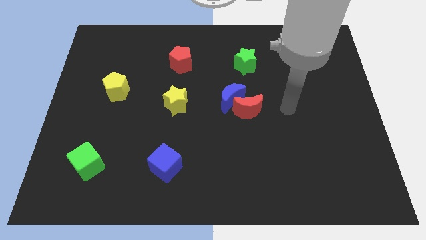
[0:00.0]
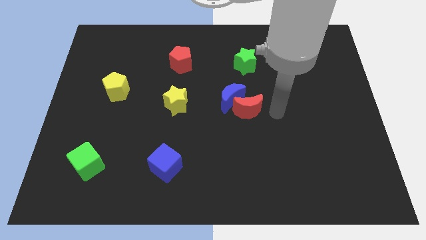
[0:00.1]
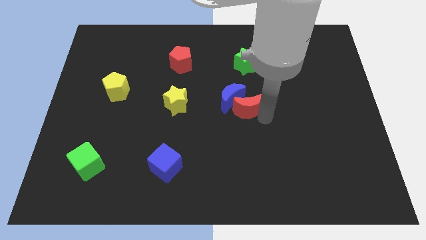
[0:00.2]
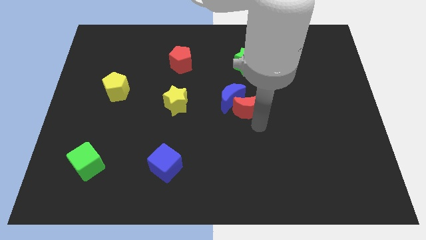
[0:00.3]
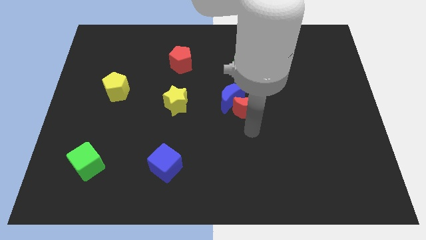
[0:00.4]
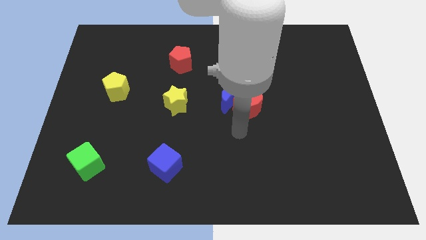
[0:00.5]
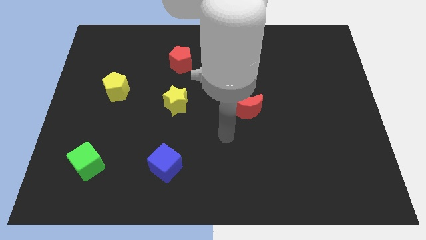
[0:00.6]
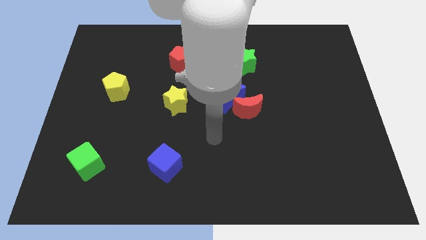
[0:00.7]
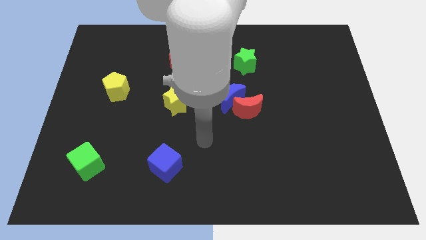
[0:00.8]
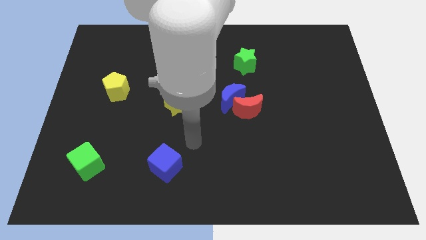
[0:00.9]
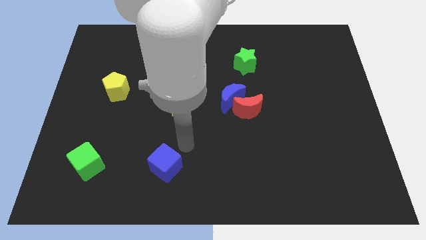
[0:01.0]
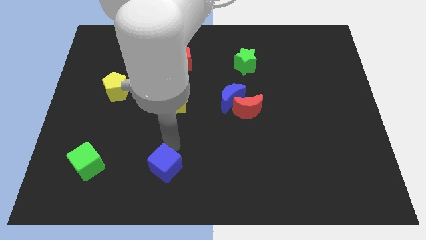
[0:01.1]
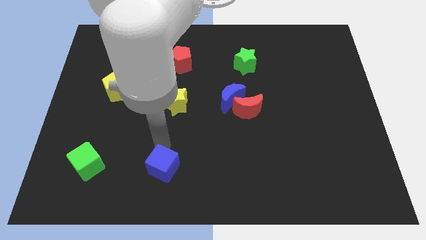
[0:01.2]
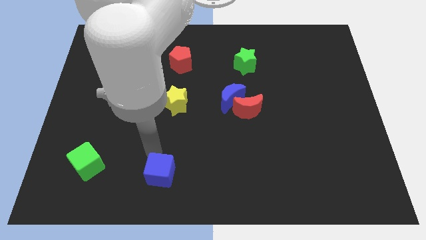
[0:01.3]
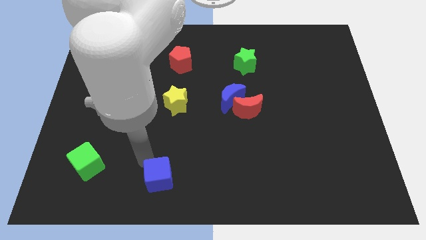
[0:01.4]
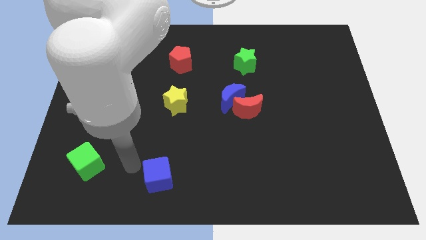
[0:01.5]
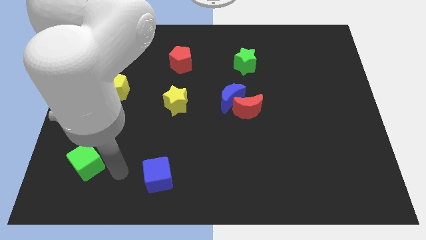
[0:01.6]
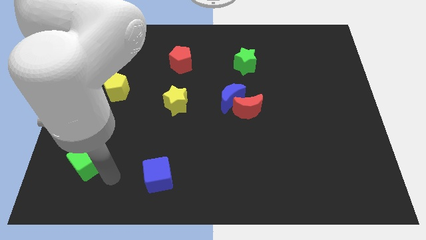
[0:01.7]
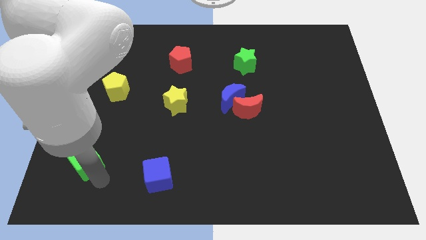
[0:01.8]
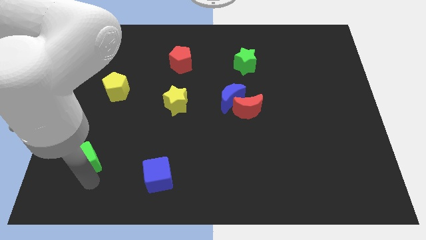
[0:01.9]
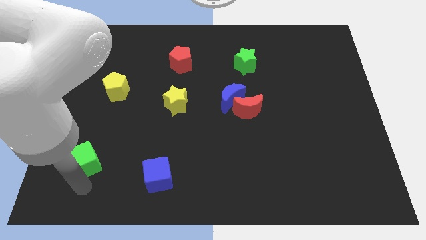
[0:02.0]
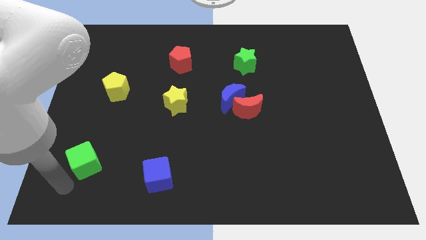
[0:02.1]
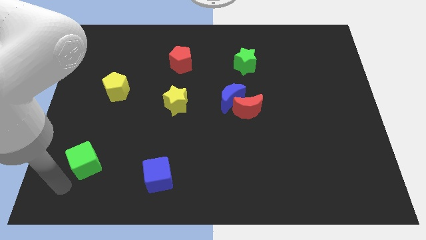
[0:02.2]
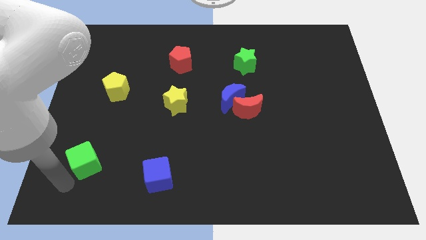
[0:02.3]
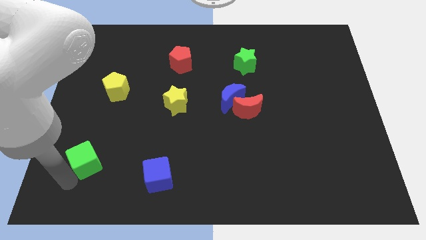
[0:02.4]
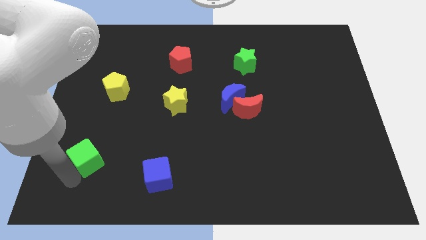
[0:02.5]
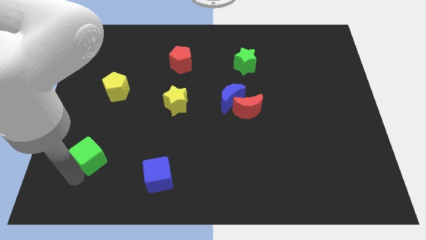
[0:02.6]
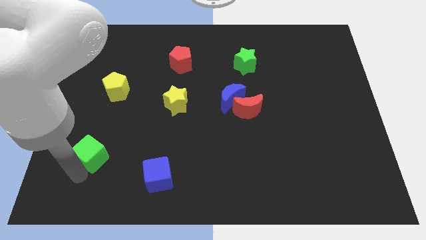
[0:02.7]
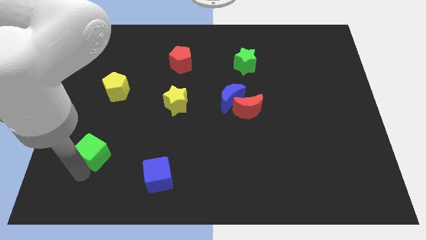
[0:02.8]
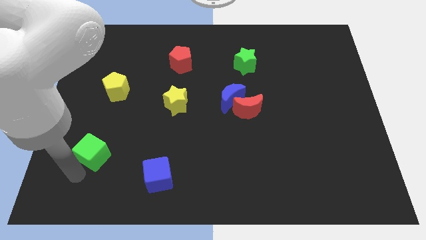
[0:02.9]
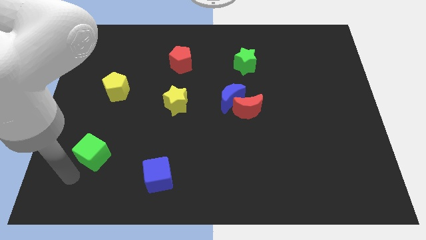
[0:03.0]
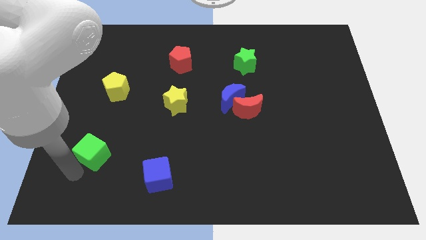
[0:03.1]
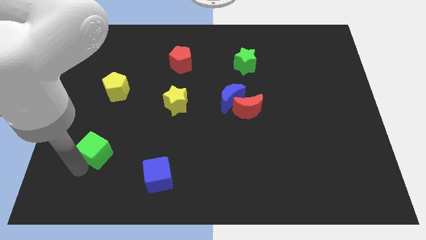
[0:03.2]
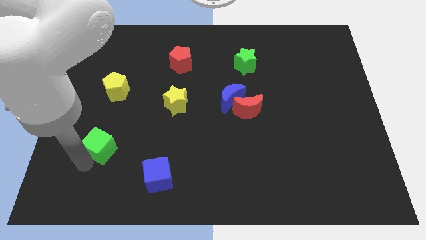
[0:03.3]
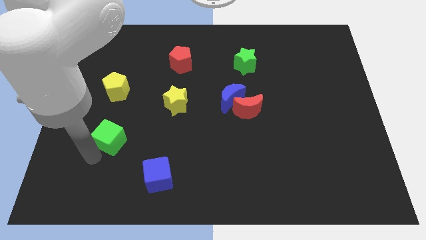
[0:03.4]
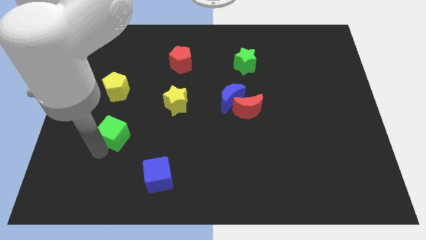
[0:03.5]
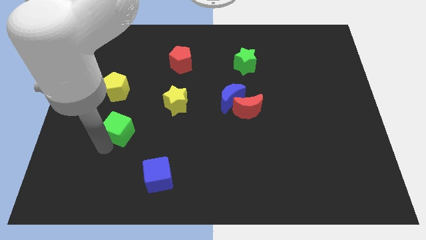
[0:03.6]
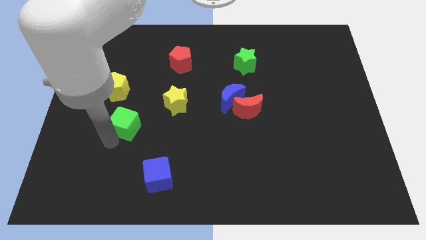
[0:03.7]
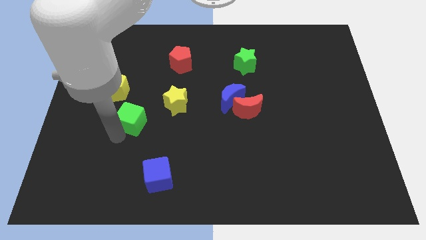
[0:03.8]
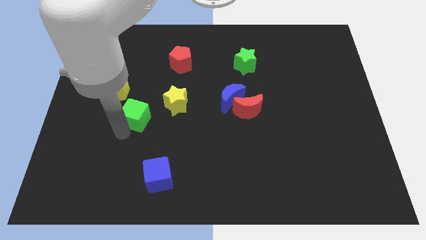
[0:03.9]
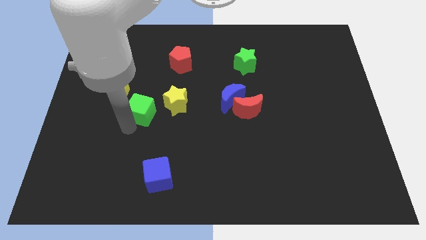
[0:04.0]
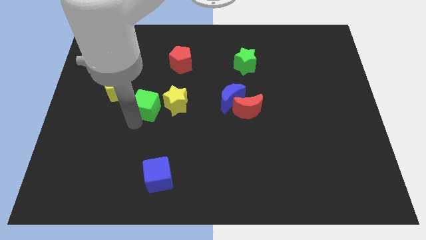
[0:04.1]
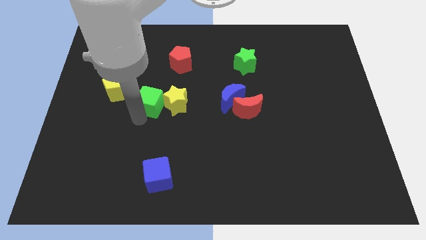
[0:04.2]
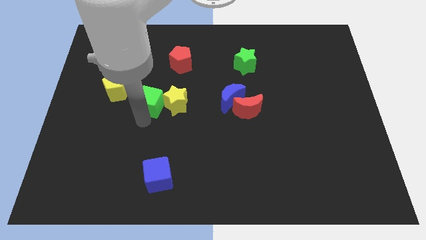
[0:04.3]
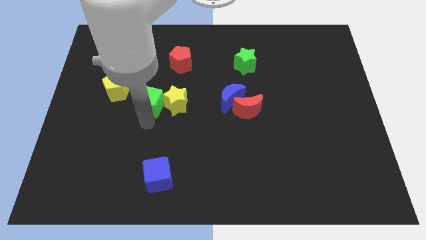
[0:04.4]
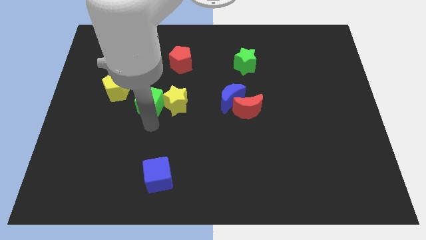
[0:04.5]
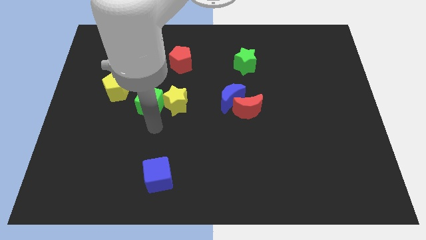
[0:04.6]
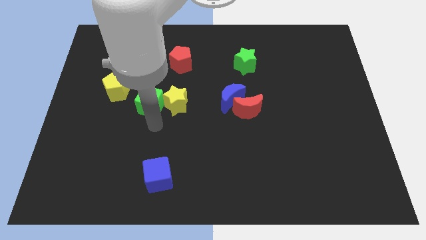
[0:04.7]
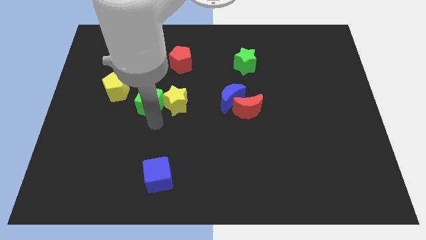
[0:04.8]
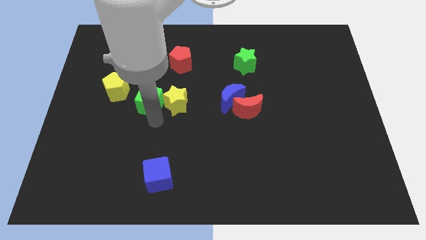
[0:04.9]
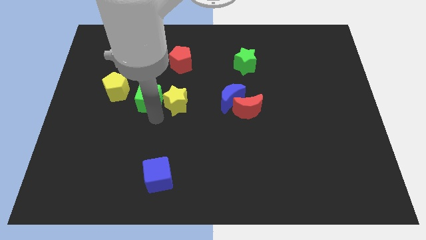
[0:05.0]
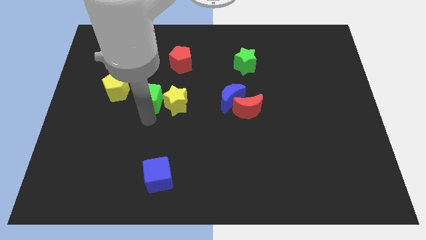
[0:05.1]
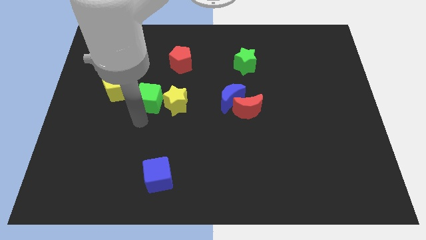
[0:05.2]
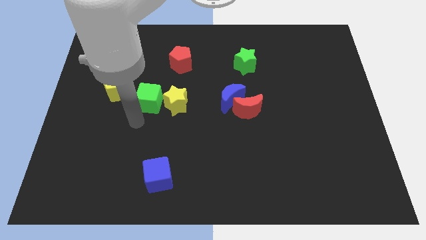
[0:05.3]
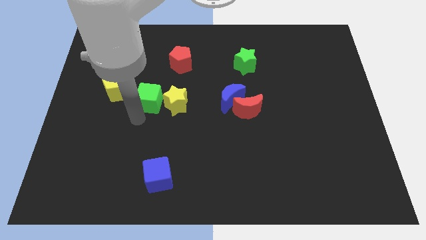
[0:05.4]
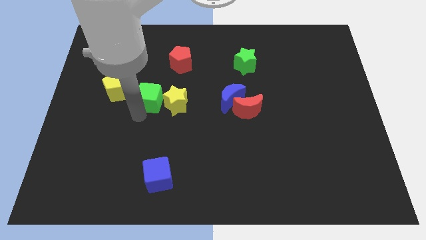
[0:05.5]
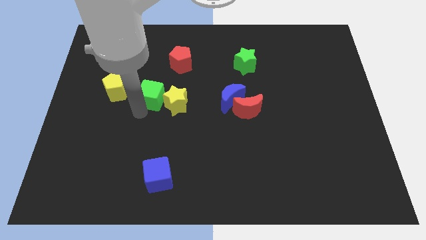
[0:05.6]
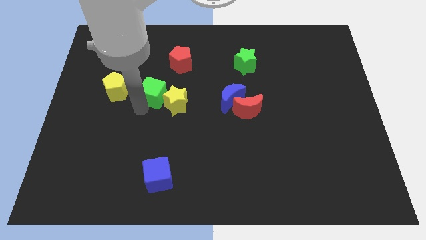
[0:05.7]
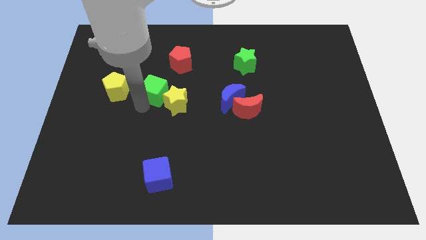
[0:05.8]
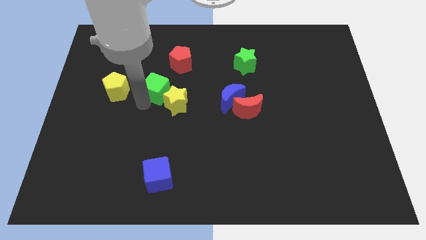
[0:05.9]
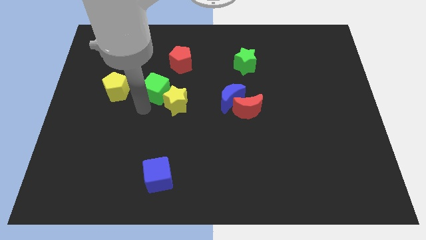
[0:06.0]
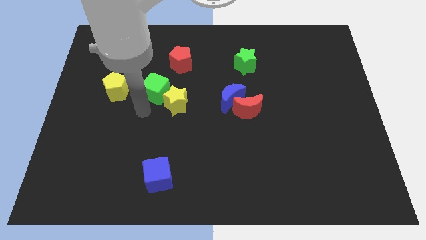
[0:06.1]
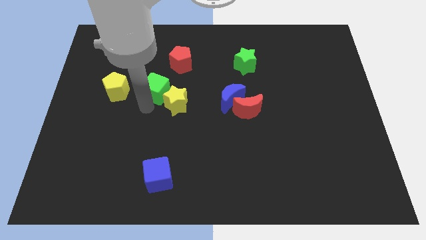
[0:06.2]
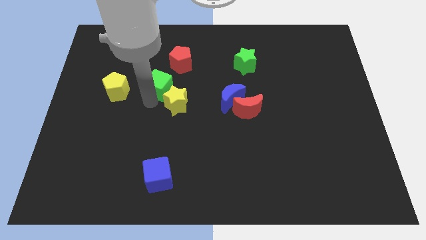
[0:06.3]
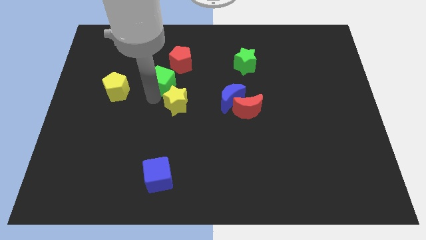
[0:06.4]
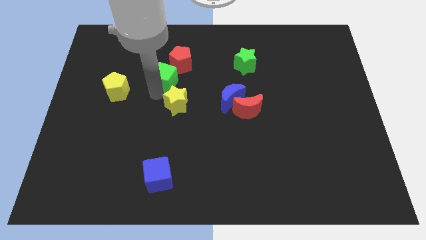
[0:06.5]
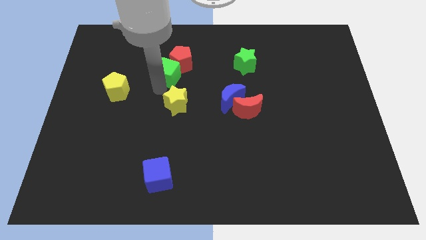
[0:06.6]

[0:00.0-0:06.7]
move the green cube next to the red pentagon
